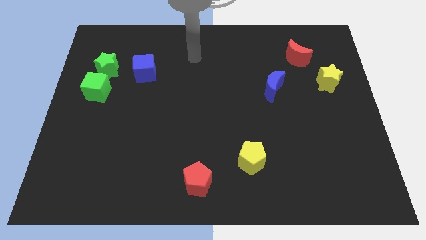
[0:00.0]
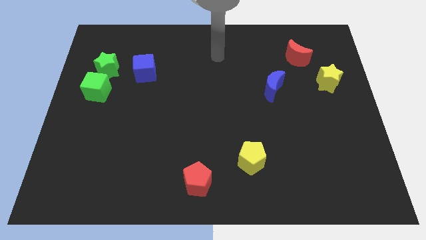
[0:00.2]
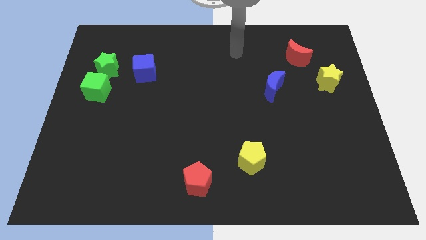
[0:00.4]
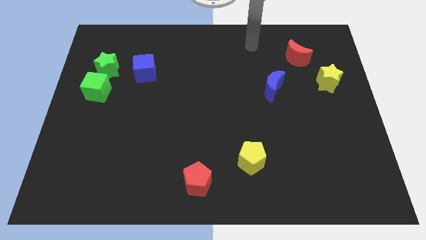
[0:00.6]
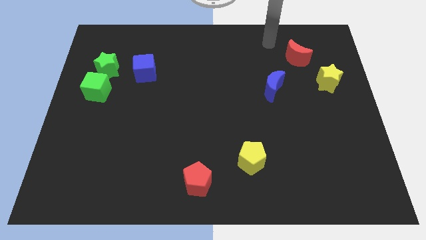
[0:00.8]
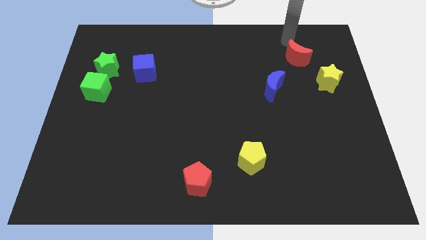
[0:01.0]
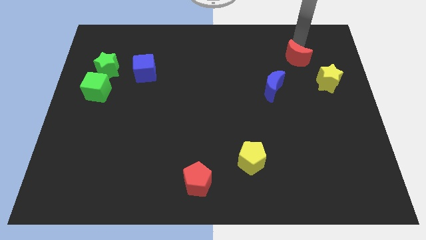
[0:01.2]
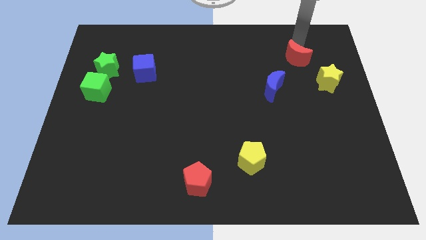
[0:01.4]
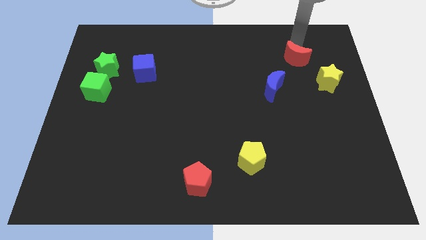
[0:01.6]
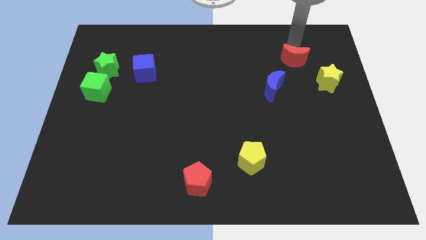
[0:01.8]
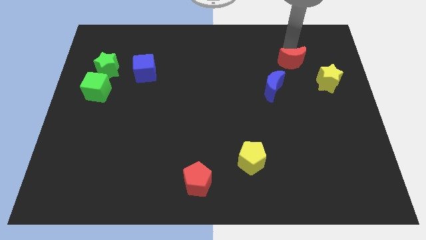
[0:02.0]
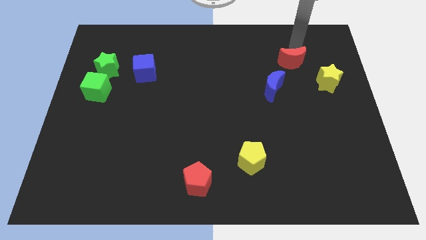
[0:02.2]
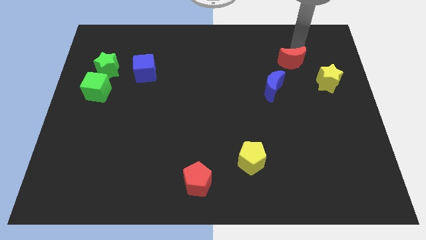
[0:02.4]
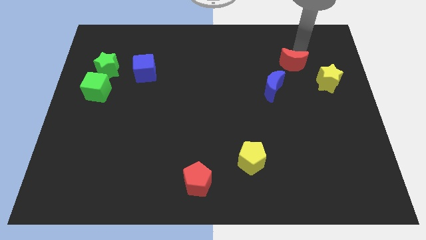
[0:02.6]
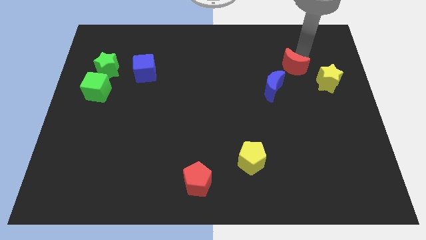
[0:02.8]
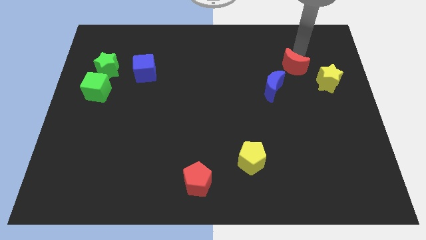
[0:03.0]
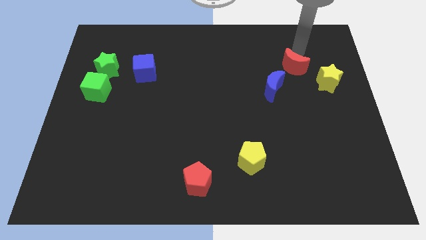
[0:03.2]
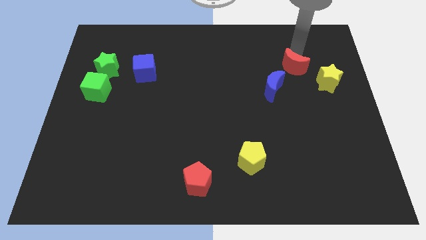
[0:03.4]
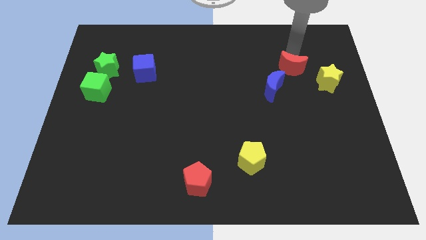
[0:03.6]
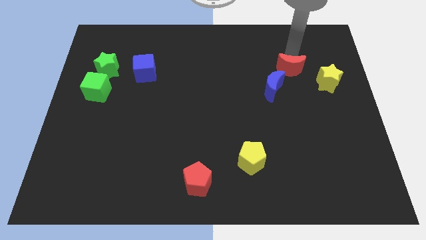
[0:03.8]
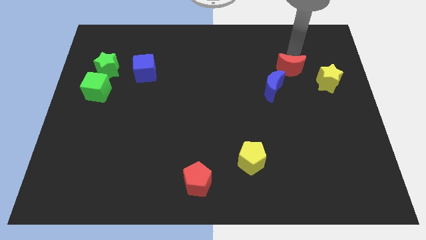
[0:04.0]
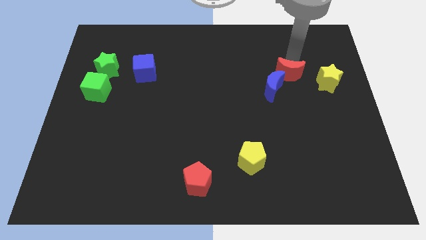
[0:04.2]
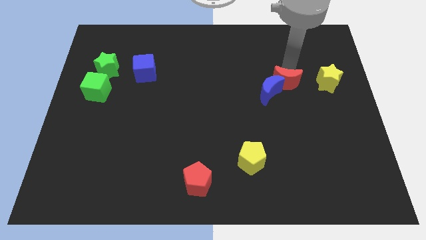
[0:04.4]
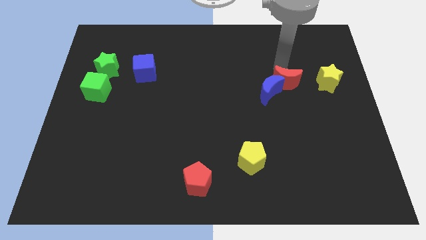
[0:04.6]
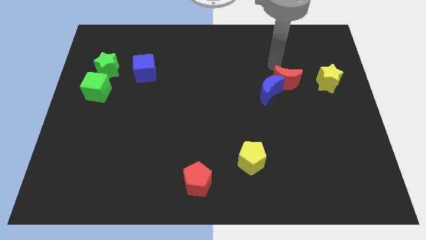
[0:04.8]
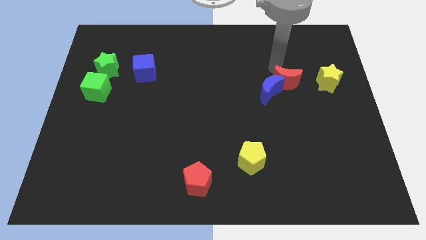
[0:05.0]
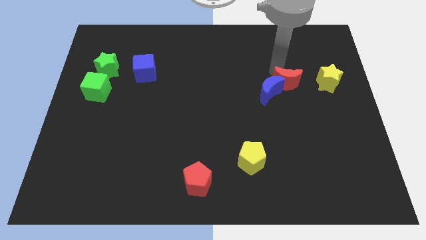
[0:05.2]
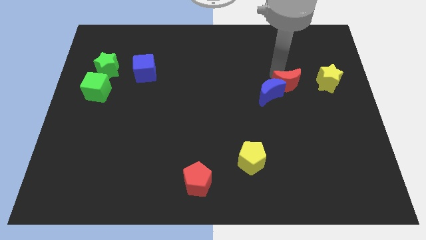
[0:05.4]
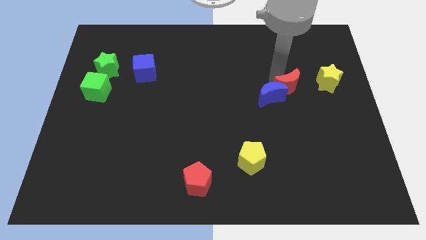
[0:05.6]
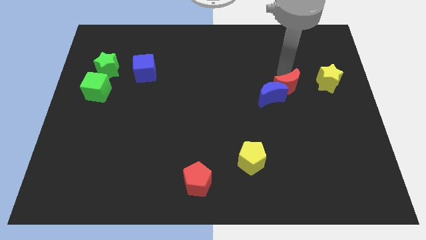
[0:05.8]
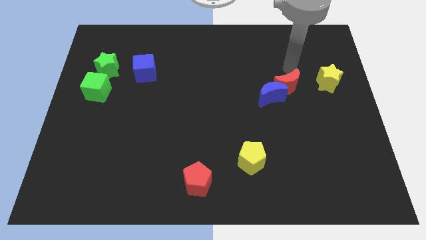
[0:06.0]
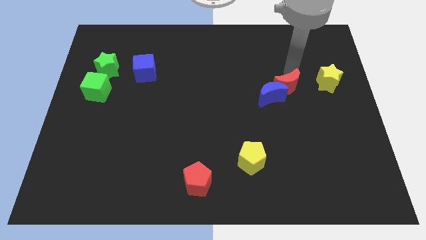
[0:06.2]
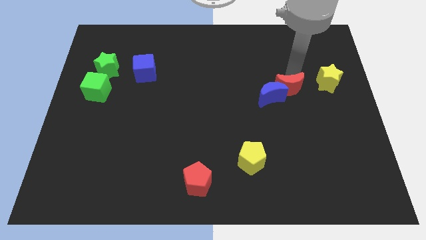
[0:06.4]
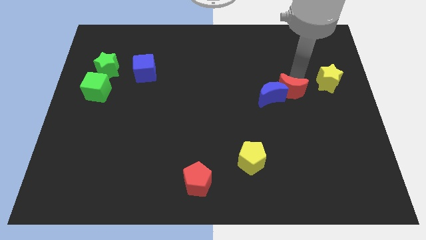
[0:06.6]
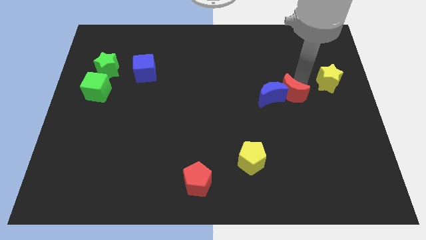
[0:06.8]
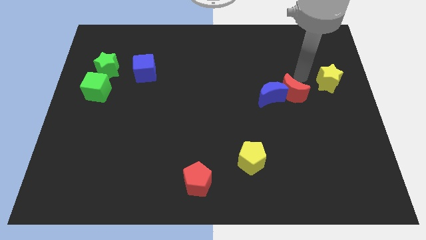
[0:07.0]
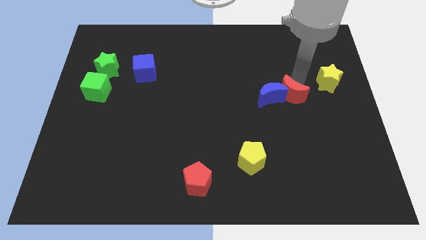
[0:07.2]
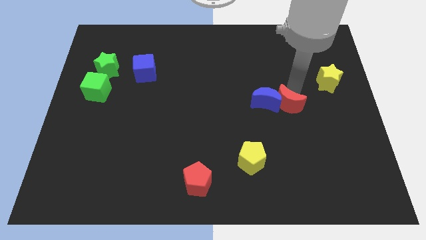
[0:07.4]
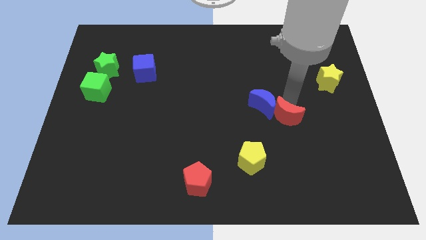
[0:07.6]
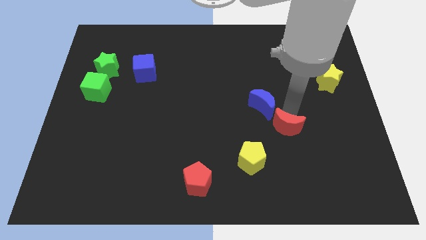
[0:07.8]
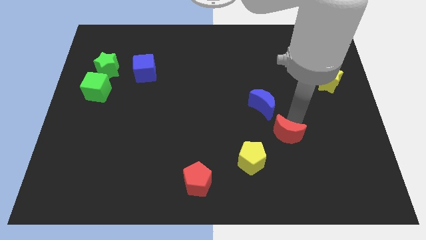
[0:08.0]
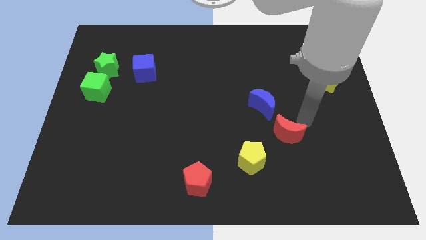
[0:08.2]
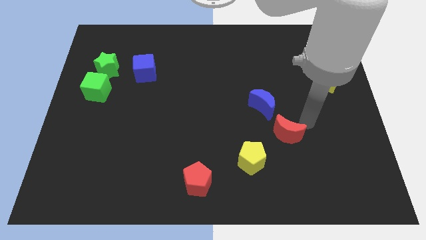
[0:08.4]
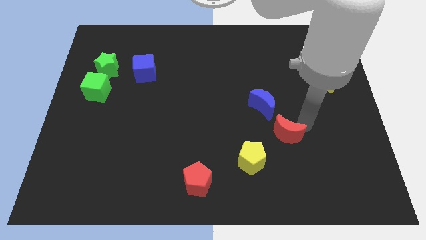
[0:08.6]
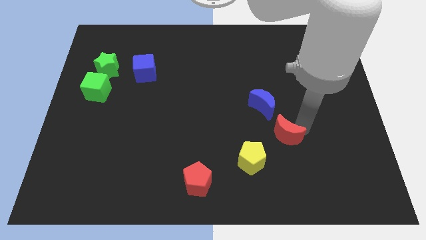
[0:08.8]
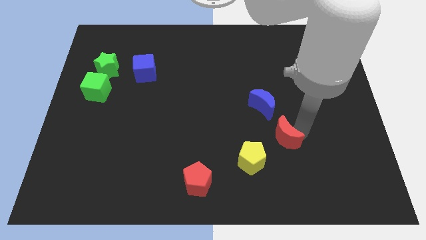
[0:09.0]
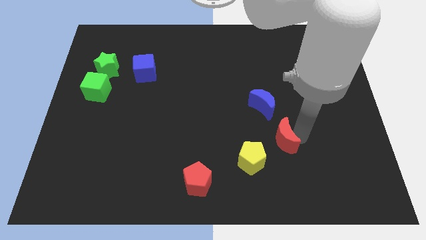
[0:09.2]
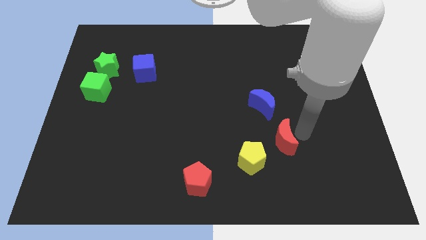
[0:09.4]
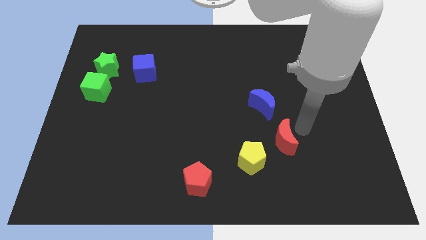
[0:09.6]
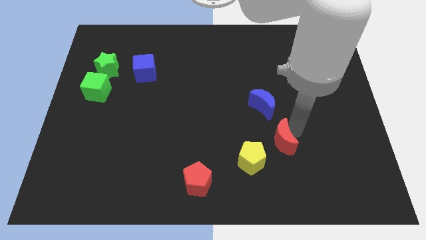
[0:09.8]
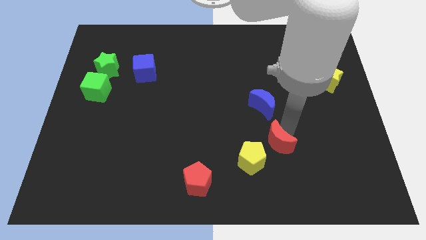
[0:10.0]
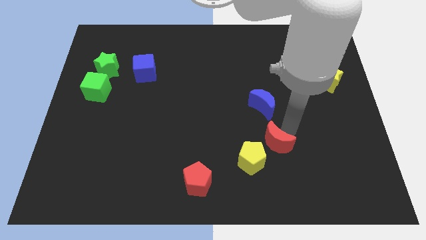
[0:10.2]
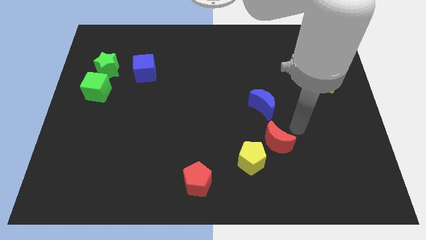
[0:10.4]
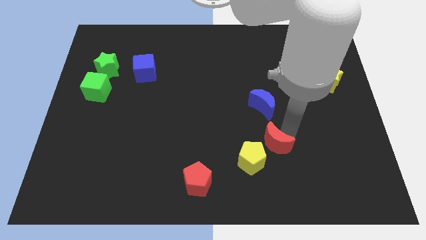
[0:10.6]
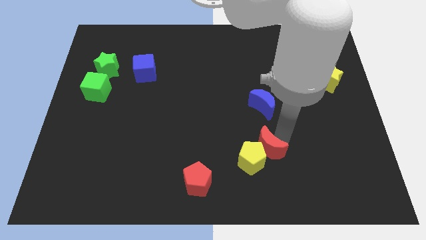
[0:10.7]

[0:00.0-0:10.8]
put the red moon close to the yellow pentagon
